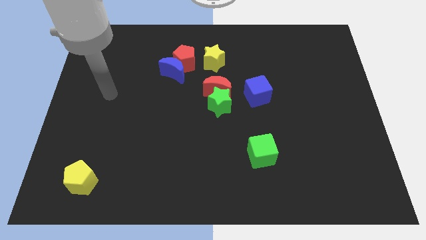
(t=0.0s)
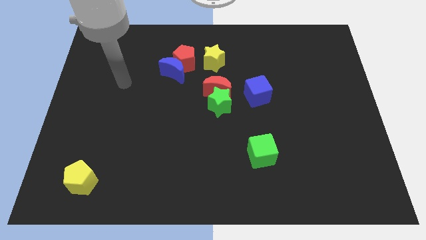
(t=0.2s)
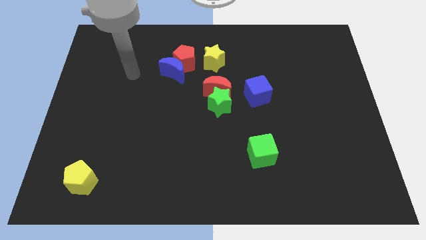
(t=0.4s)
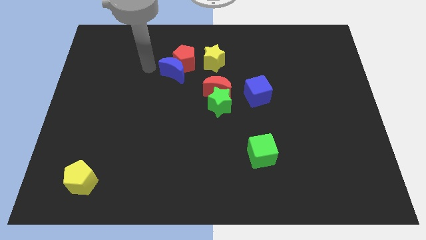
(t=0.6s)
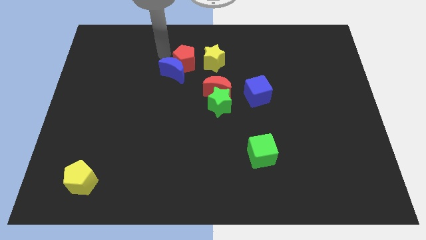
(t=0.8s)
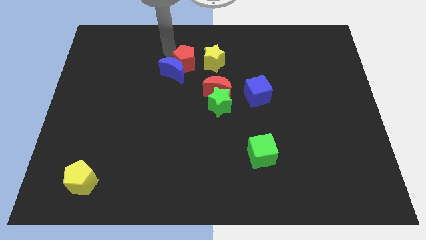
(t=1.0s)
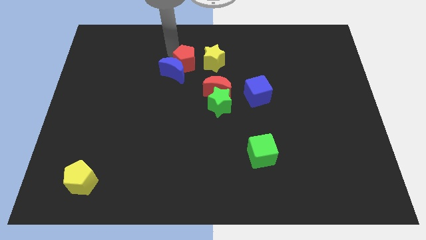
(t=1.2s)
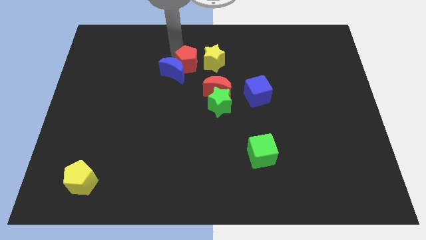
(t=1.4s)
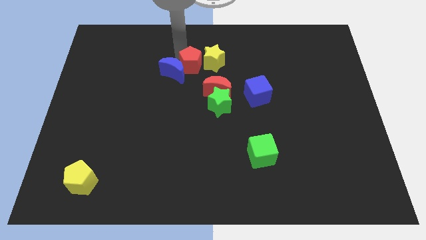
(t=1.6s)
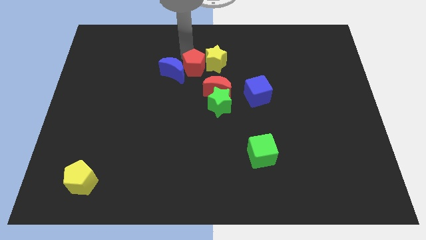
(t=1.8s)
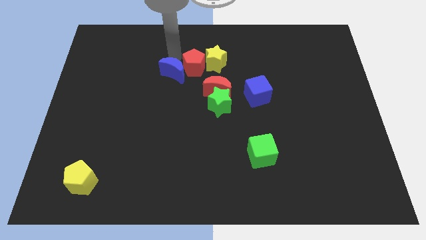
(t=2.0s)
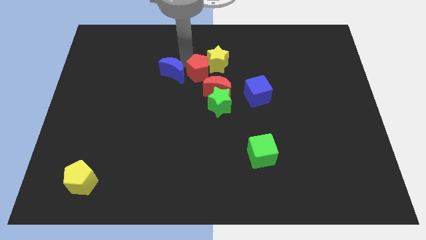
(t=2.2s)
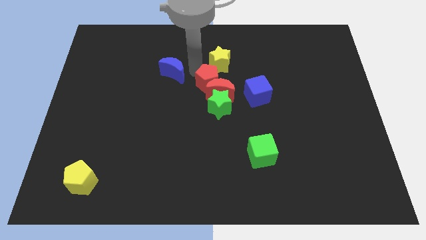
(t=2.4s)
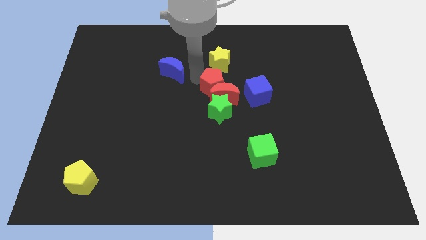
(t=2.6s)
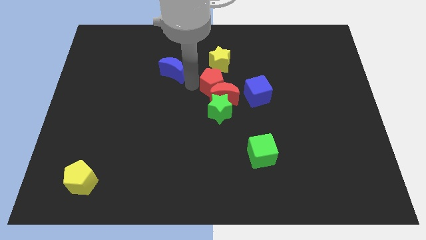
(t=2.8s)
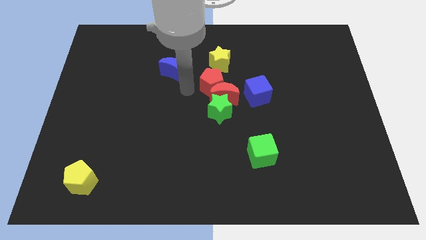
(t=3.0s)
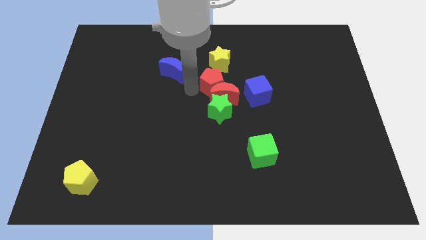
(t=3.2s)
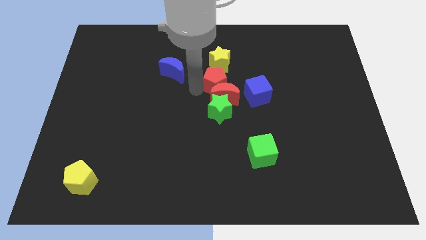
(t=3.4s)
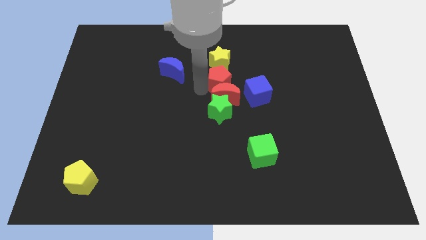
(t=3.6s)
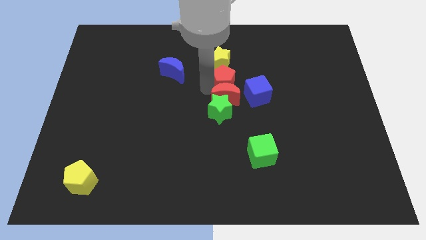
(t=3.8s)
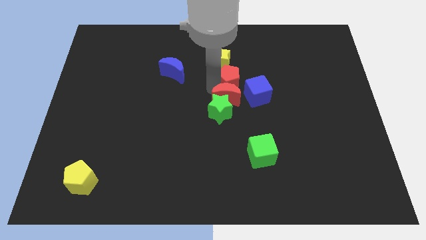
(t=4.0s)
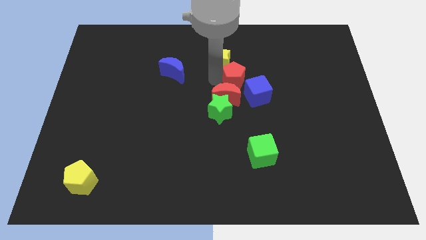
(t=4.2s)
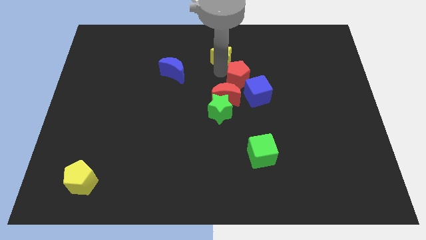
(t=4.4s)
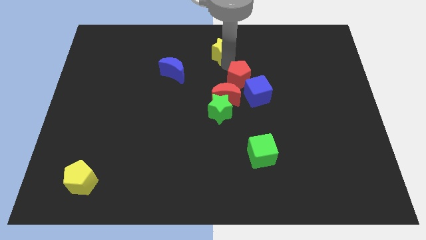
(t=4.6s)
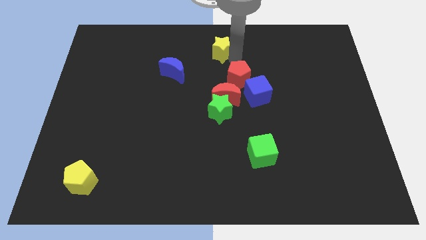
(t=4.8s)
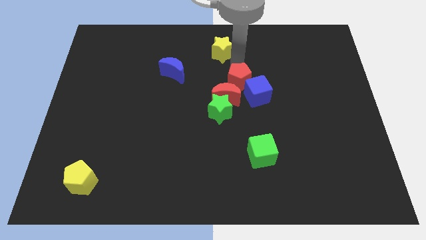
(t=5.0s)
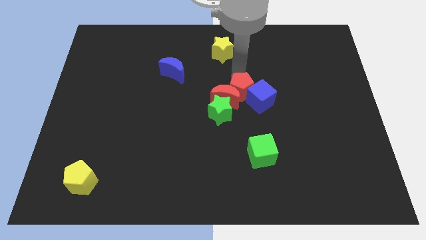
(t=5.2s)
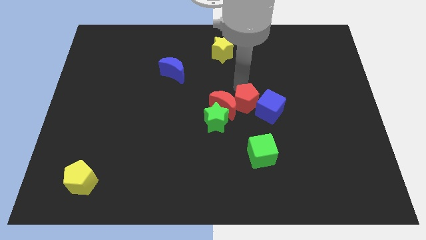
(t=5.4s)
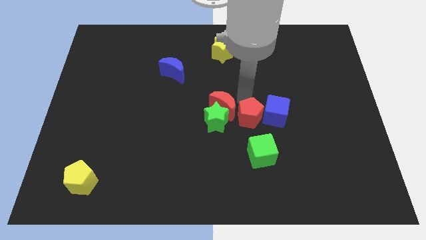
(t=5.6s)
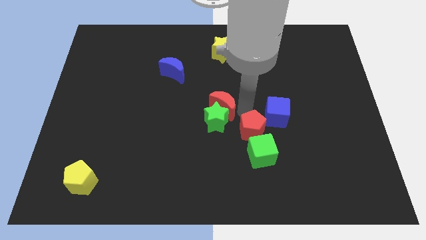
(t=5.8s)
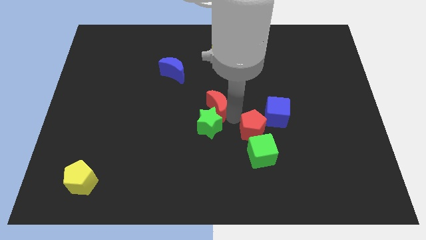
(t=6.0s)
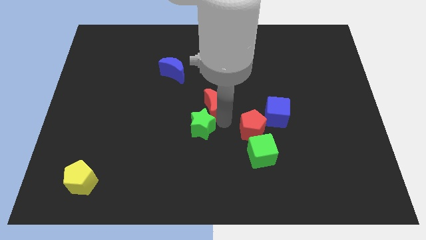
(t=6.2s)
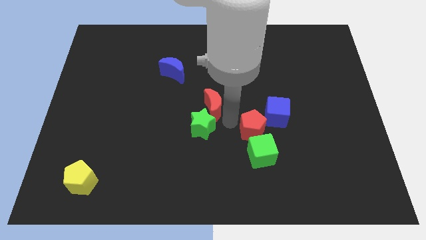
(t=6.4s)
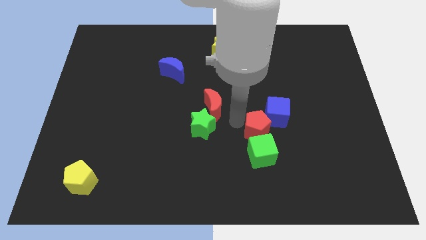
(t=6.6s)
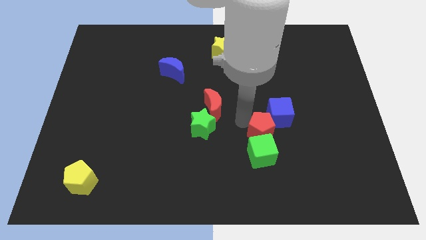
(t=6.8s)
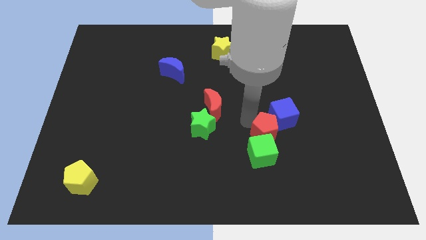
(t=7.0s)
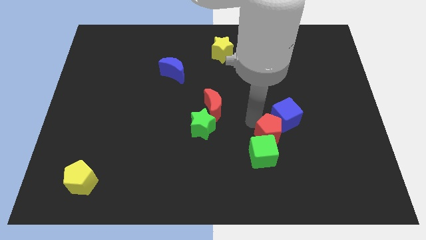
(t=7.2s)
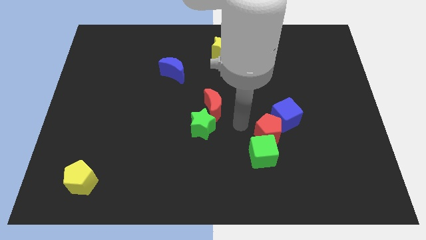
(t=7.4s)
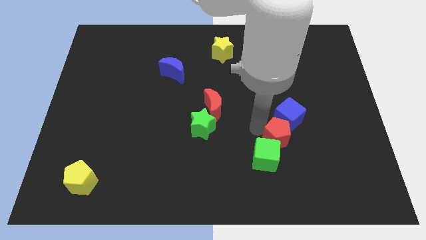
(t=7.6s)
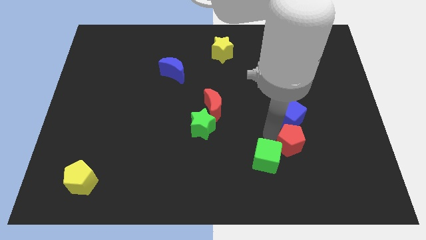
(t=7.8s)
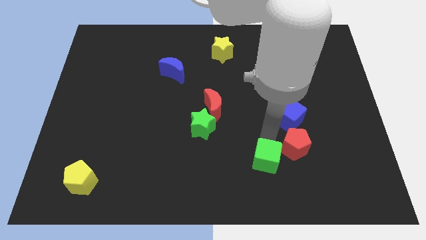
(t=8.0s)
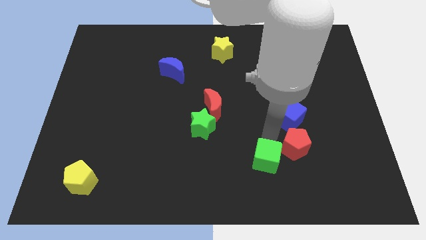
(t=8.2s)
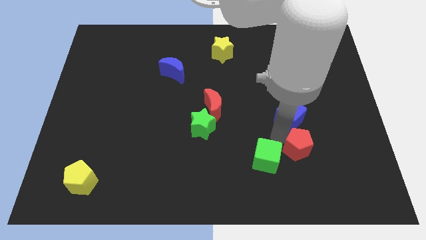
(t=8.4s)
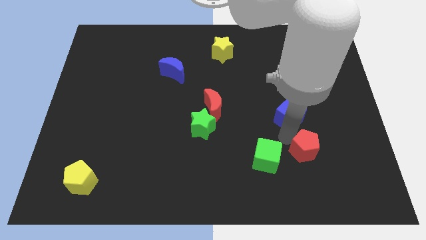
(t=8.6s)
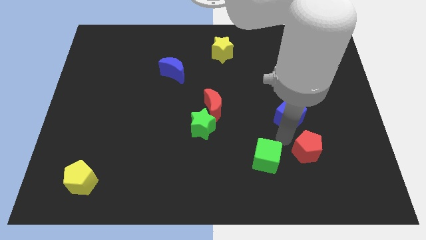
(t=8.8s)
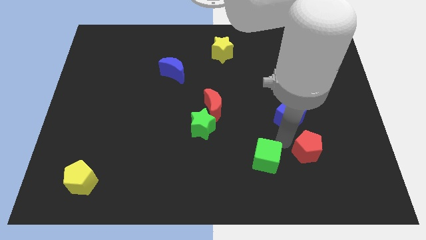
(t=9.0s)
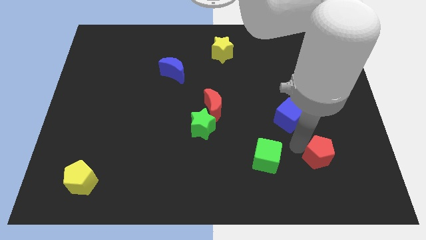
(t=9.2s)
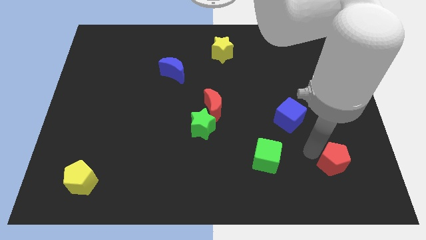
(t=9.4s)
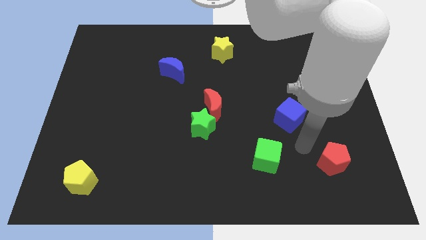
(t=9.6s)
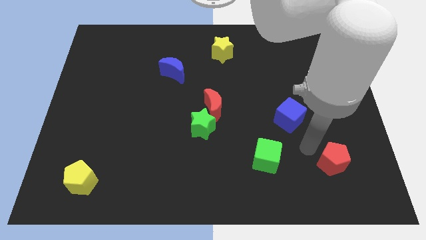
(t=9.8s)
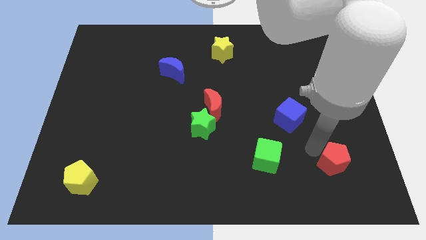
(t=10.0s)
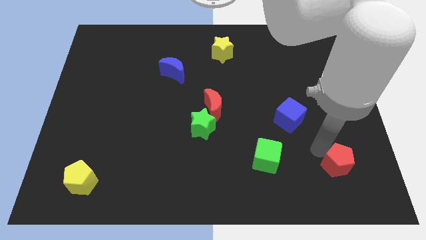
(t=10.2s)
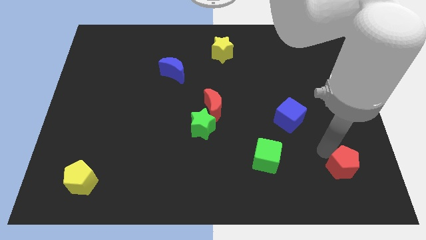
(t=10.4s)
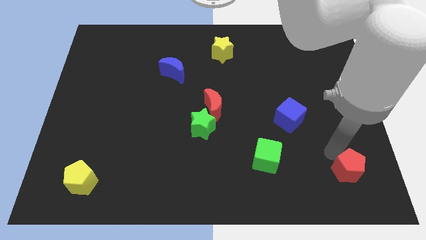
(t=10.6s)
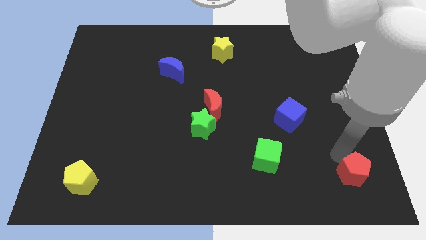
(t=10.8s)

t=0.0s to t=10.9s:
push the red pentagon to the bottom right of the board

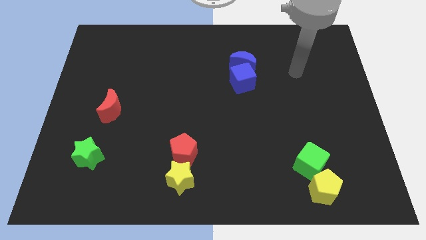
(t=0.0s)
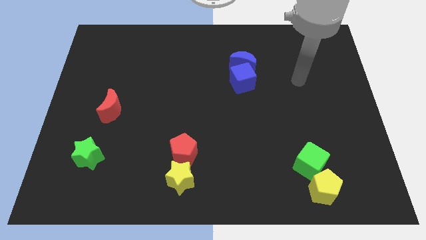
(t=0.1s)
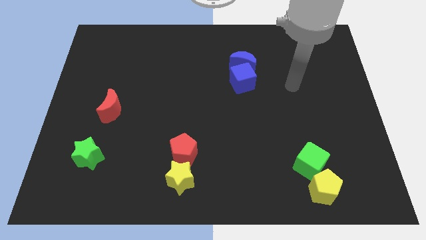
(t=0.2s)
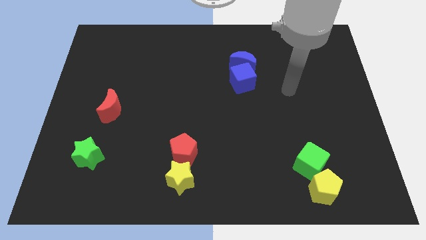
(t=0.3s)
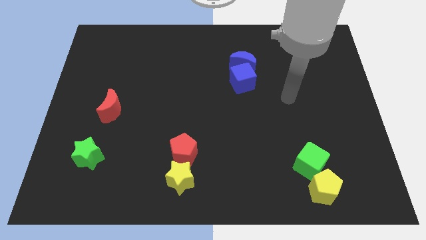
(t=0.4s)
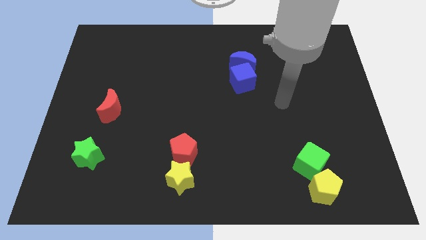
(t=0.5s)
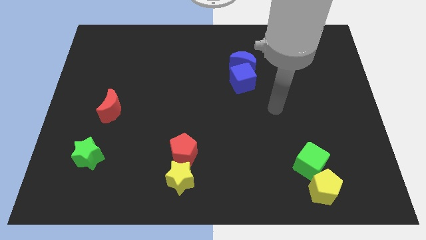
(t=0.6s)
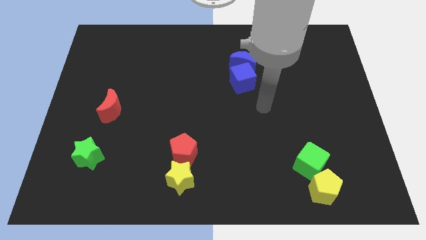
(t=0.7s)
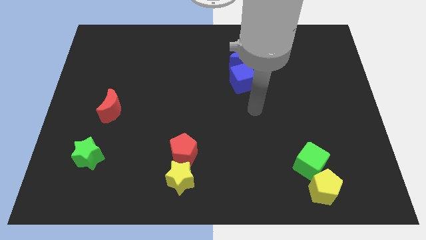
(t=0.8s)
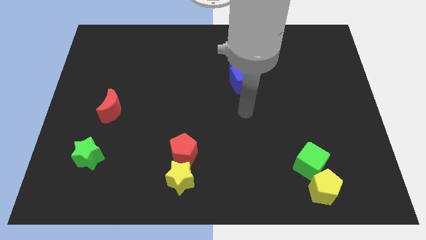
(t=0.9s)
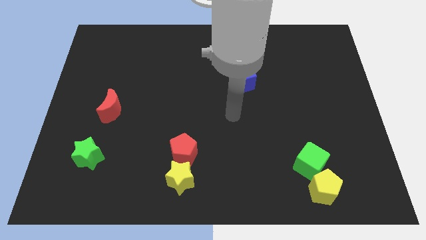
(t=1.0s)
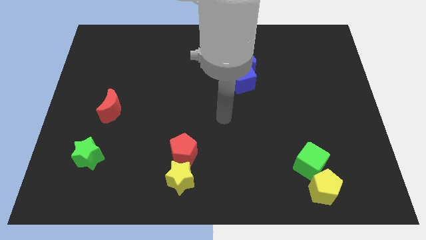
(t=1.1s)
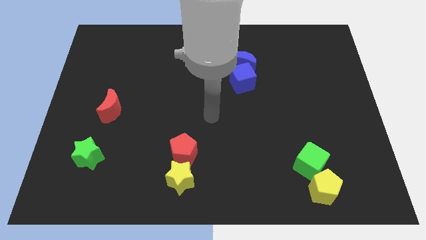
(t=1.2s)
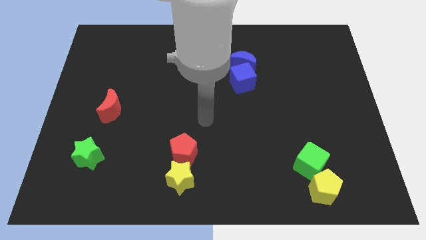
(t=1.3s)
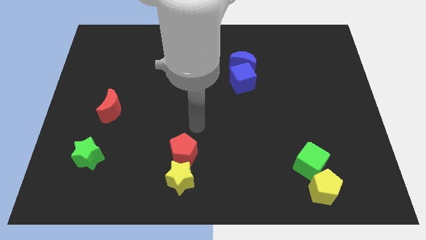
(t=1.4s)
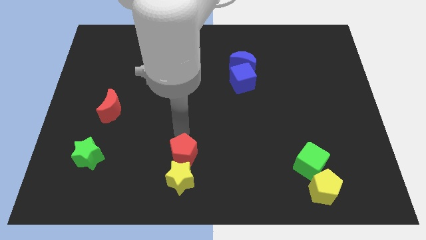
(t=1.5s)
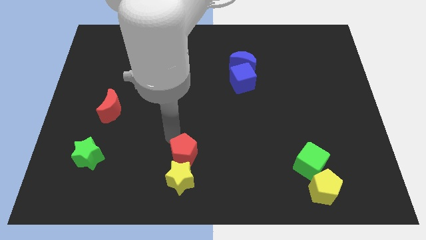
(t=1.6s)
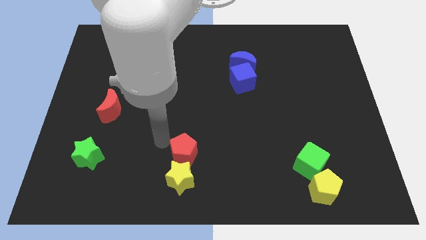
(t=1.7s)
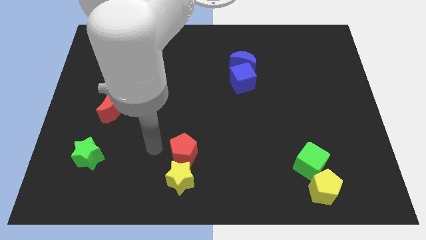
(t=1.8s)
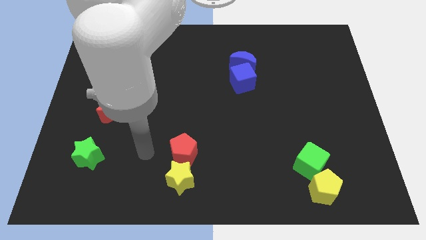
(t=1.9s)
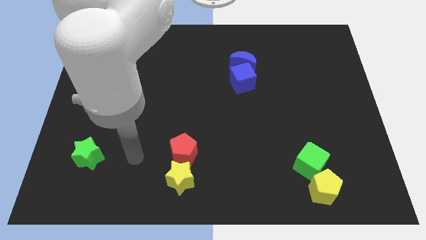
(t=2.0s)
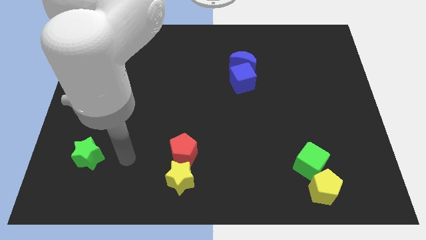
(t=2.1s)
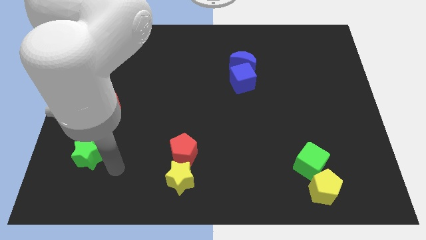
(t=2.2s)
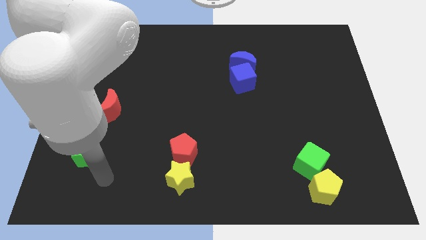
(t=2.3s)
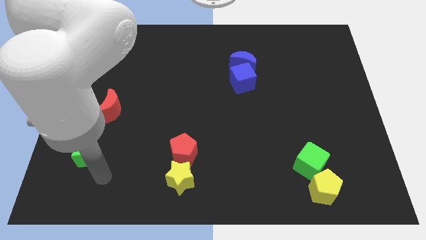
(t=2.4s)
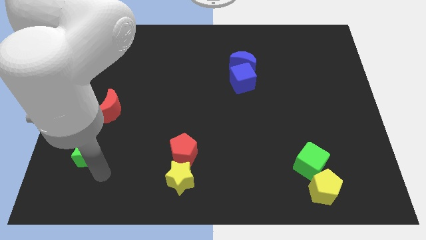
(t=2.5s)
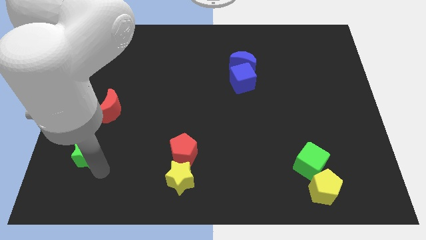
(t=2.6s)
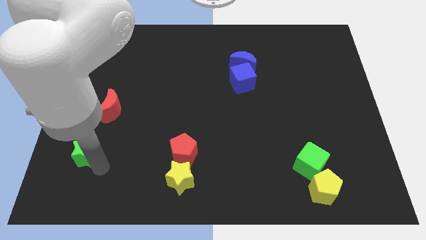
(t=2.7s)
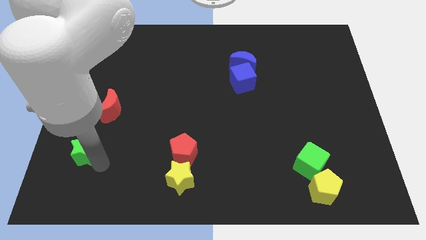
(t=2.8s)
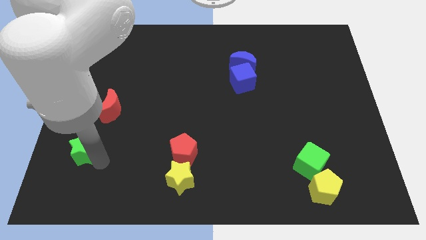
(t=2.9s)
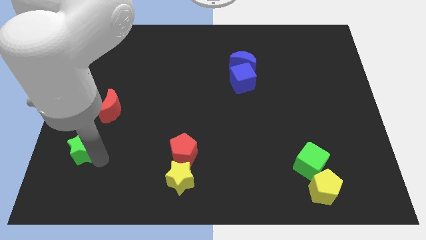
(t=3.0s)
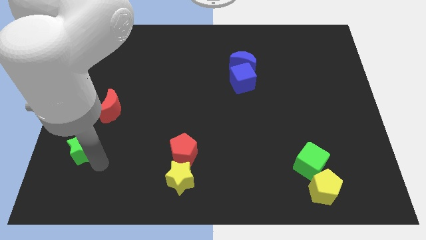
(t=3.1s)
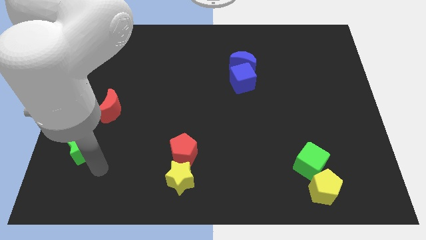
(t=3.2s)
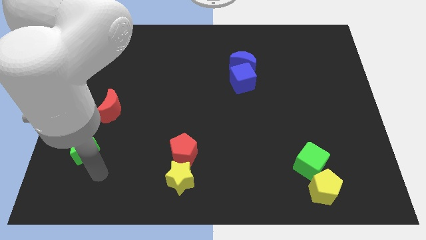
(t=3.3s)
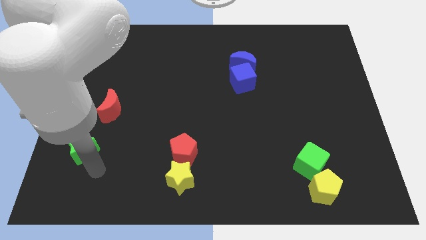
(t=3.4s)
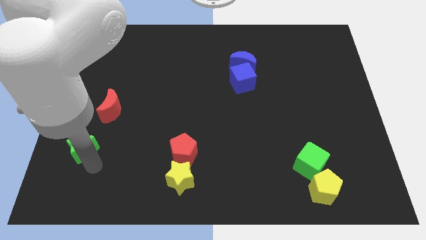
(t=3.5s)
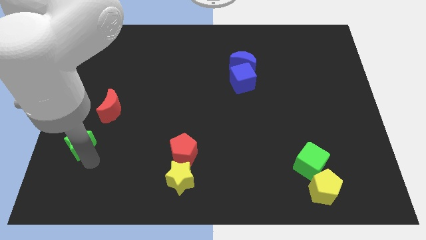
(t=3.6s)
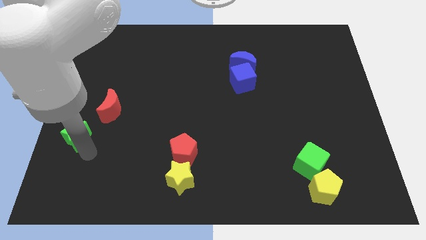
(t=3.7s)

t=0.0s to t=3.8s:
move the green star to the left side of the board
